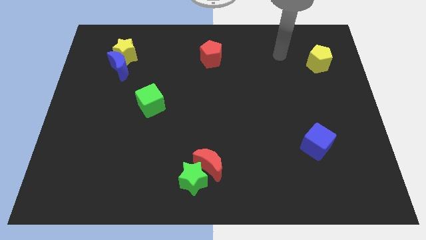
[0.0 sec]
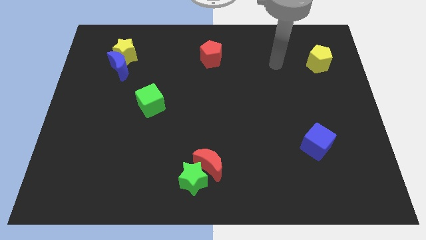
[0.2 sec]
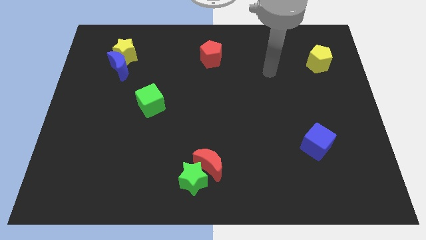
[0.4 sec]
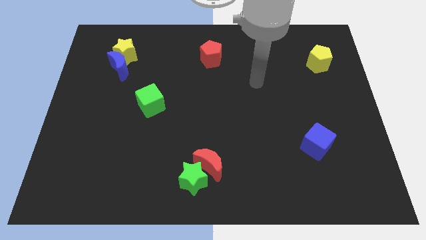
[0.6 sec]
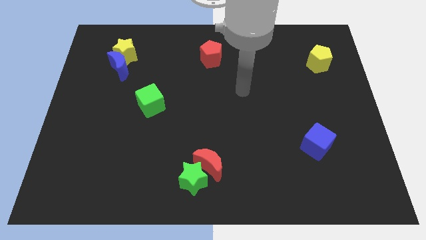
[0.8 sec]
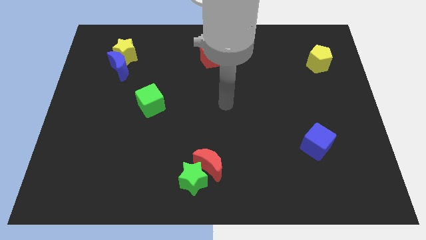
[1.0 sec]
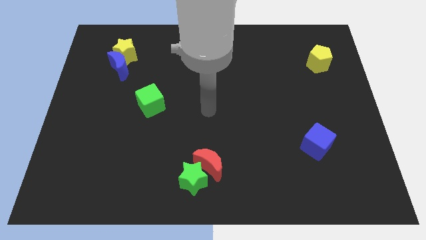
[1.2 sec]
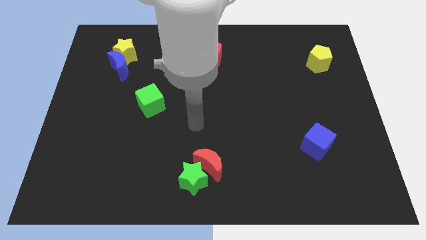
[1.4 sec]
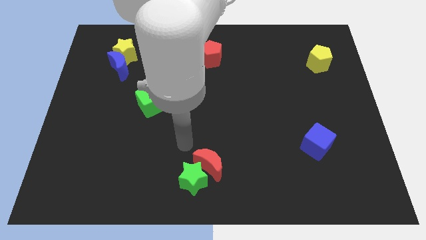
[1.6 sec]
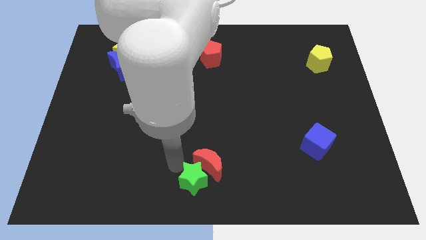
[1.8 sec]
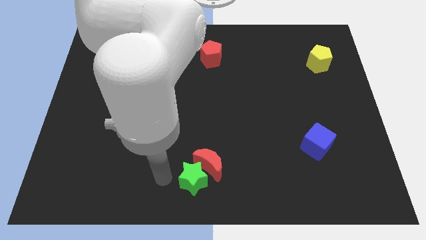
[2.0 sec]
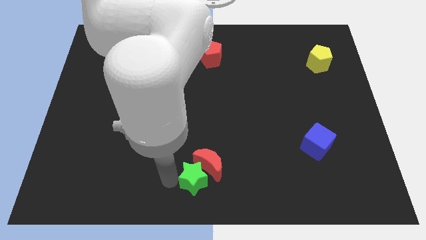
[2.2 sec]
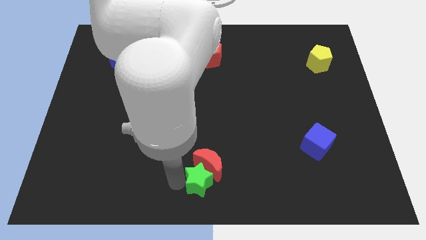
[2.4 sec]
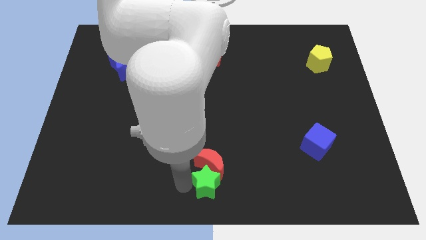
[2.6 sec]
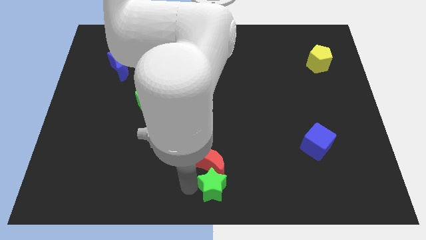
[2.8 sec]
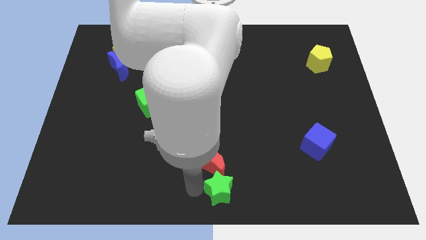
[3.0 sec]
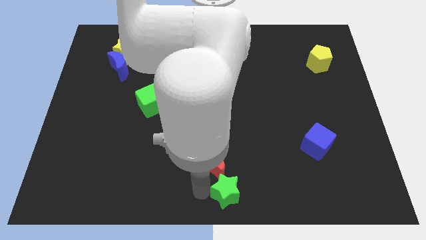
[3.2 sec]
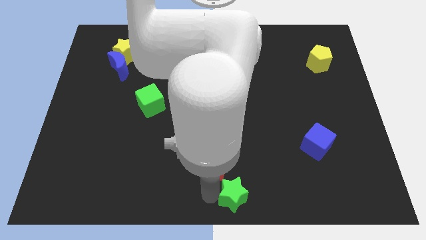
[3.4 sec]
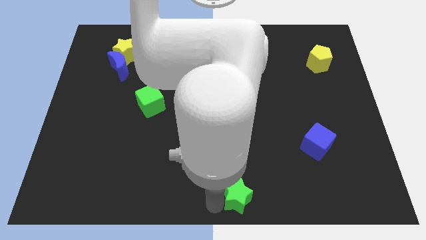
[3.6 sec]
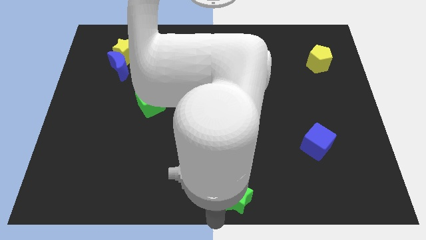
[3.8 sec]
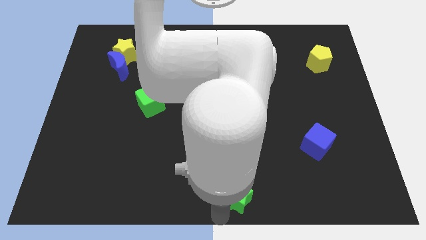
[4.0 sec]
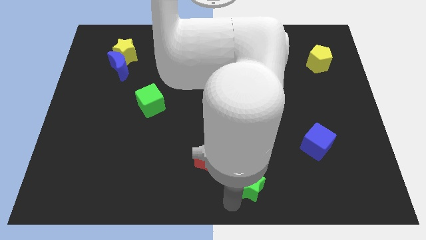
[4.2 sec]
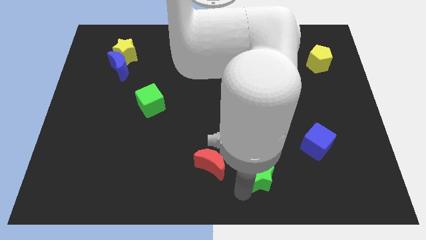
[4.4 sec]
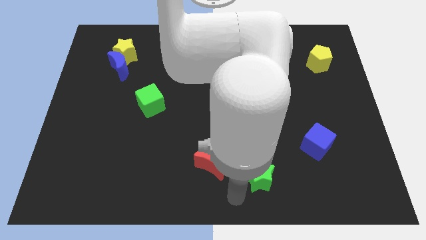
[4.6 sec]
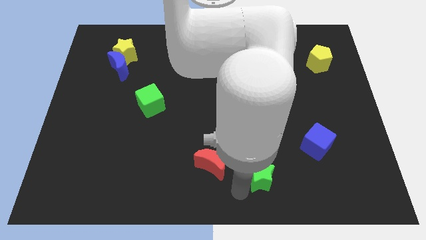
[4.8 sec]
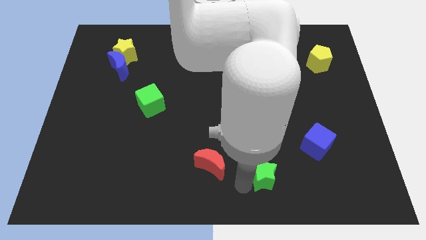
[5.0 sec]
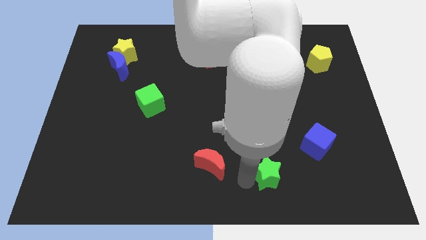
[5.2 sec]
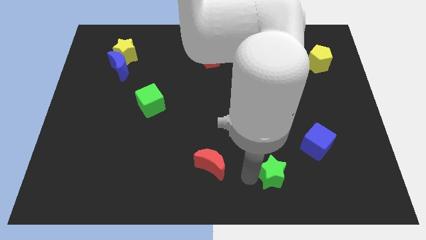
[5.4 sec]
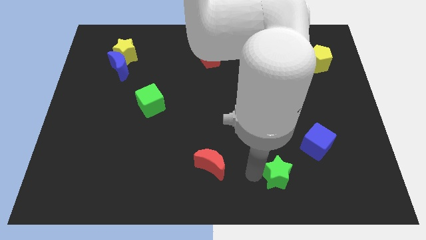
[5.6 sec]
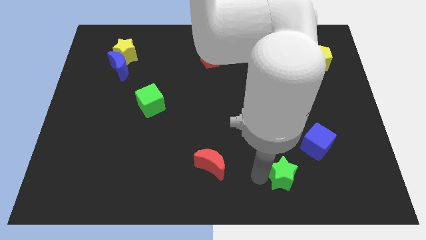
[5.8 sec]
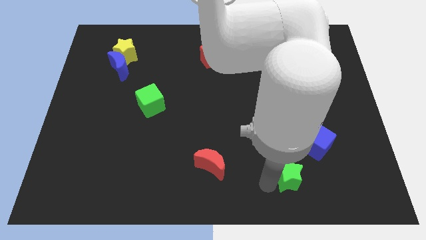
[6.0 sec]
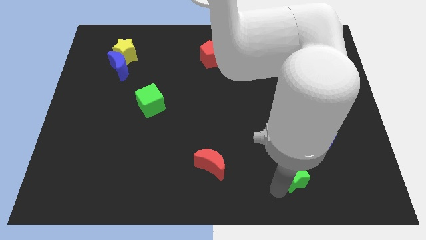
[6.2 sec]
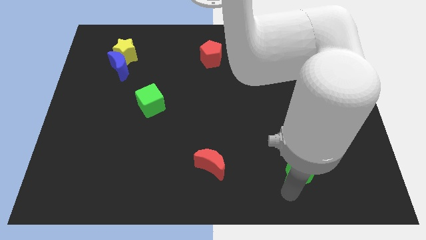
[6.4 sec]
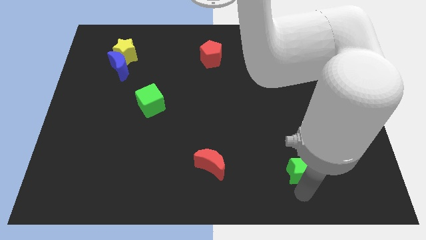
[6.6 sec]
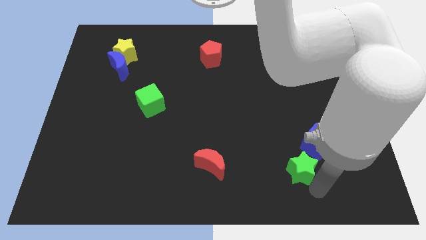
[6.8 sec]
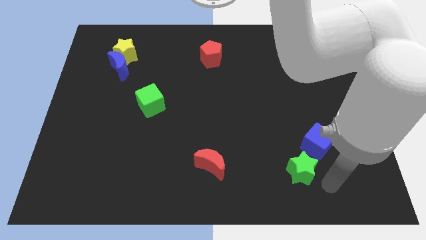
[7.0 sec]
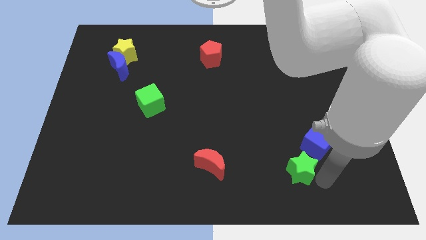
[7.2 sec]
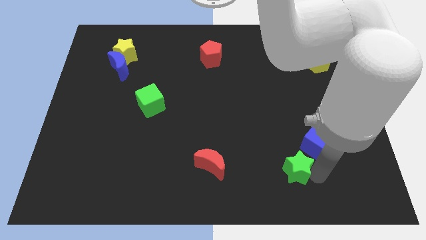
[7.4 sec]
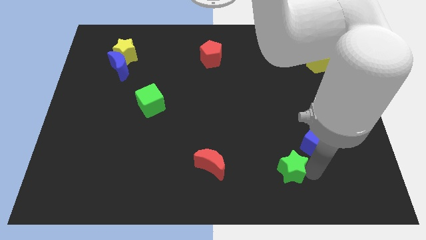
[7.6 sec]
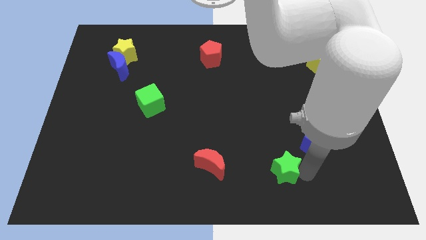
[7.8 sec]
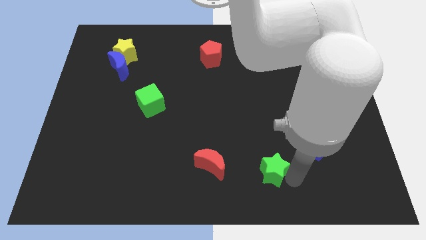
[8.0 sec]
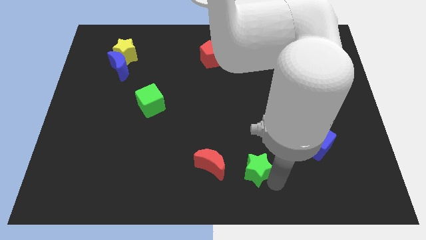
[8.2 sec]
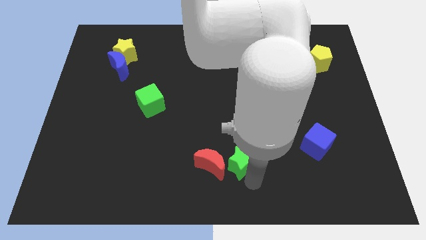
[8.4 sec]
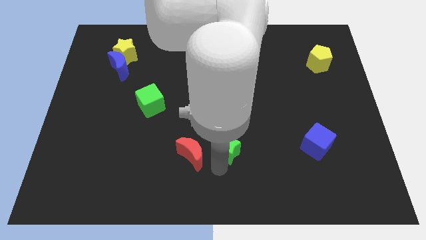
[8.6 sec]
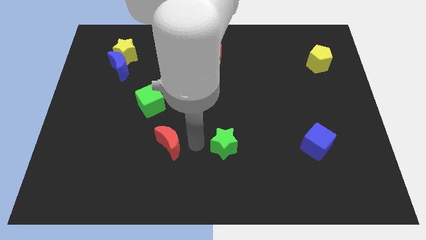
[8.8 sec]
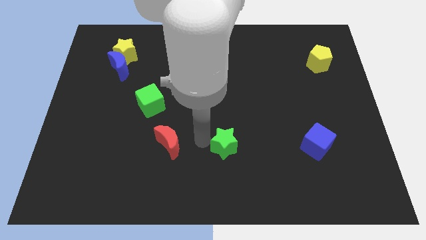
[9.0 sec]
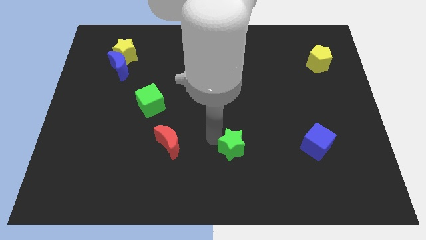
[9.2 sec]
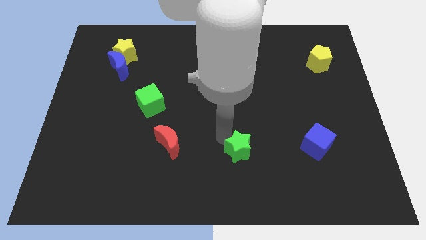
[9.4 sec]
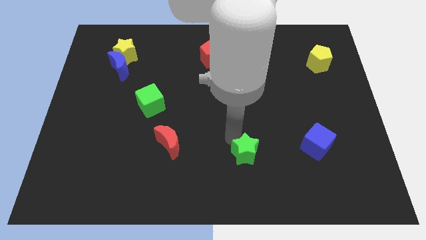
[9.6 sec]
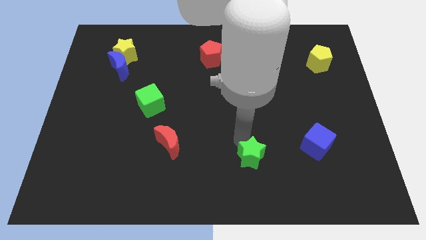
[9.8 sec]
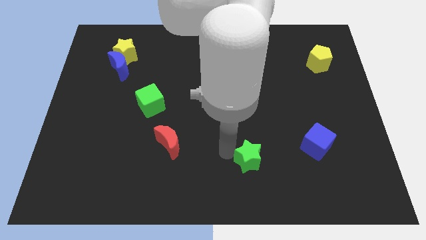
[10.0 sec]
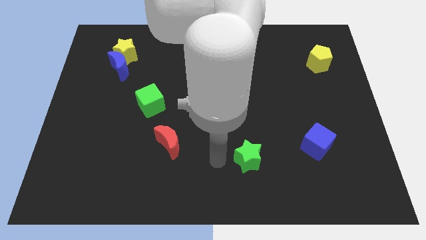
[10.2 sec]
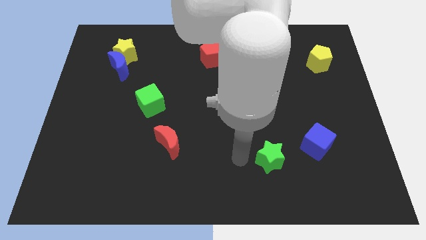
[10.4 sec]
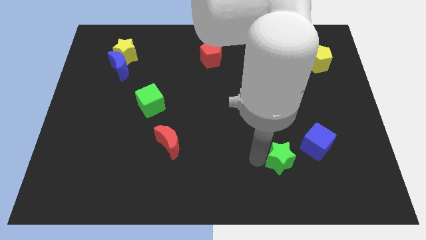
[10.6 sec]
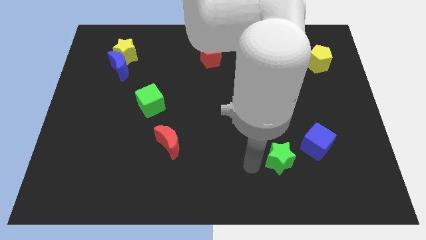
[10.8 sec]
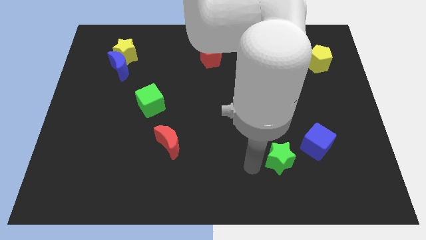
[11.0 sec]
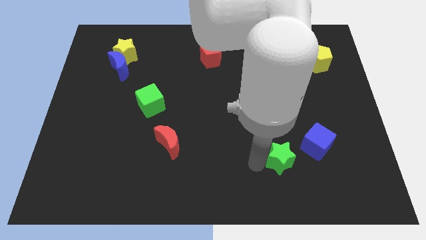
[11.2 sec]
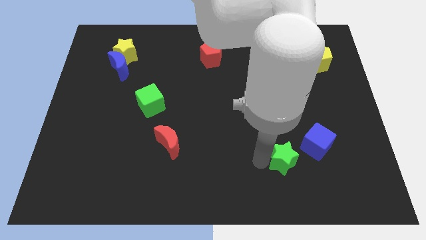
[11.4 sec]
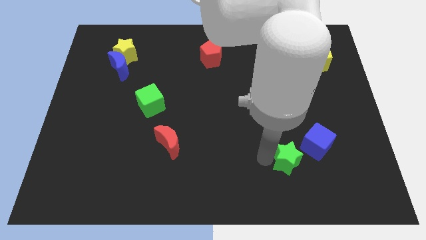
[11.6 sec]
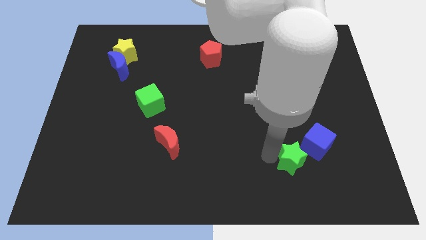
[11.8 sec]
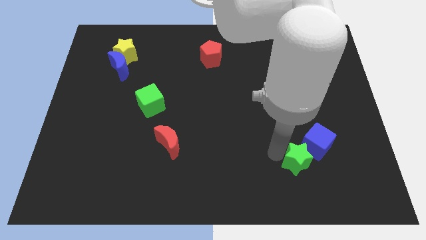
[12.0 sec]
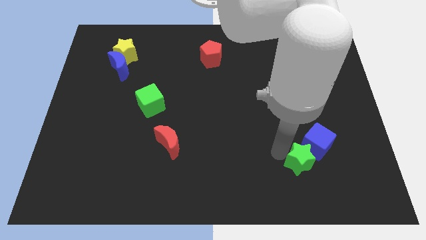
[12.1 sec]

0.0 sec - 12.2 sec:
move the green star next to the blue cube

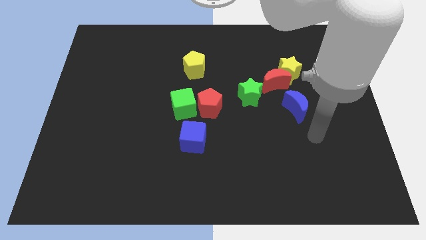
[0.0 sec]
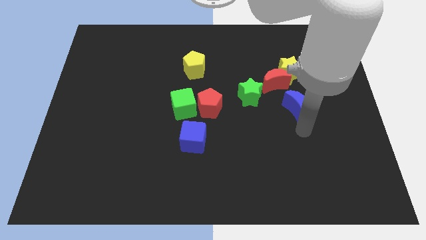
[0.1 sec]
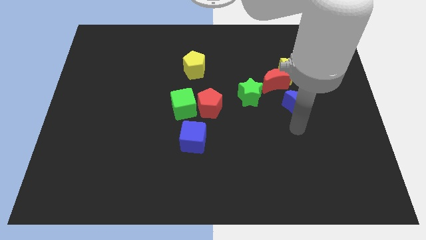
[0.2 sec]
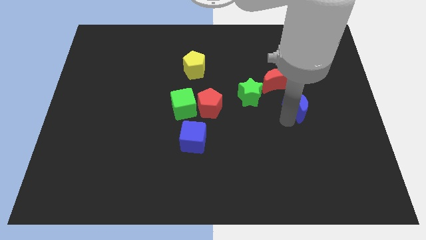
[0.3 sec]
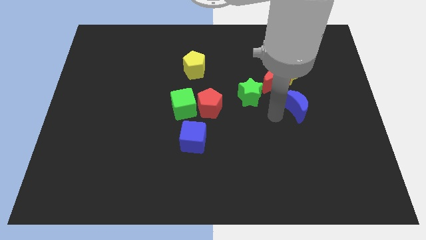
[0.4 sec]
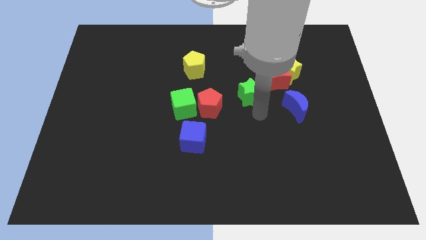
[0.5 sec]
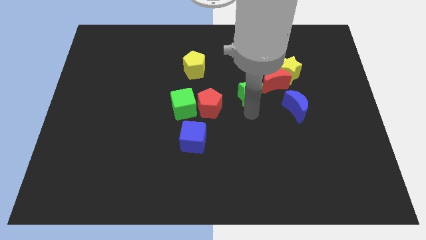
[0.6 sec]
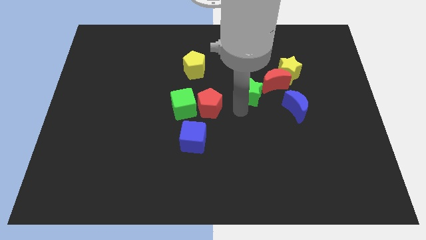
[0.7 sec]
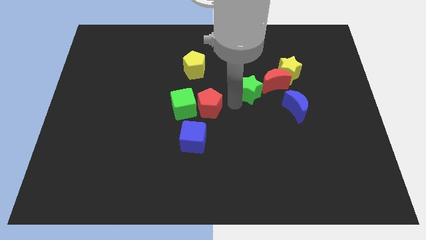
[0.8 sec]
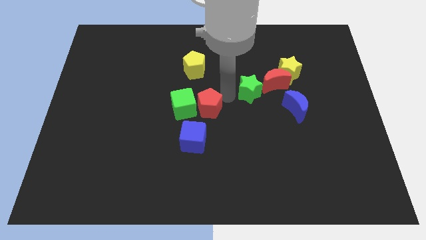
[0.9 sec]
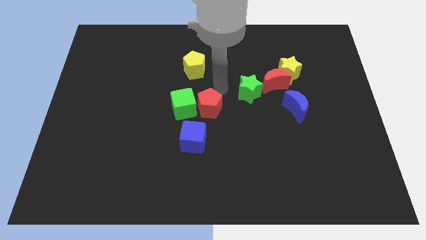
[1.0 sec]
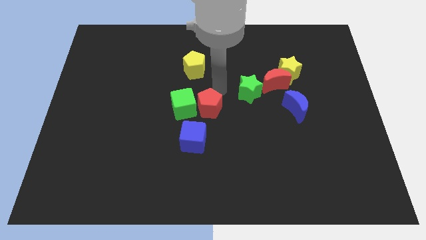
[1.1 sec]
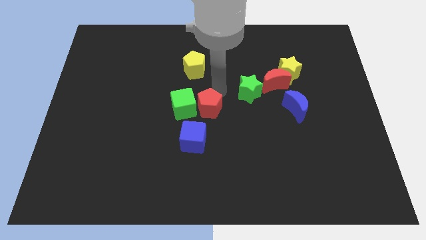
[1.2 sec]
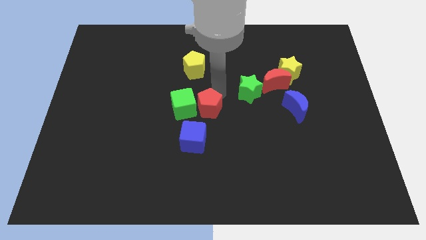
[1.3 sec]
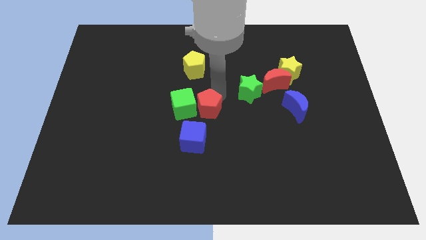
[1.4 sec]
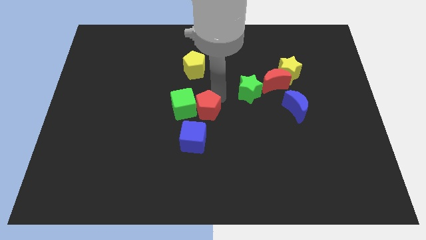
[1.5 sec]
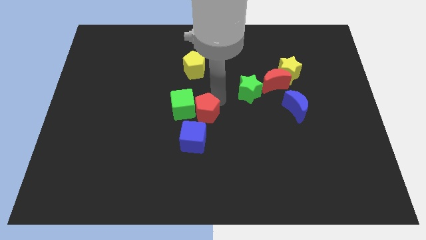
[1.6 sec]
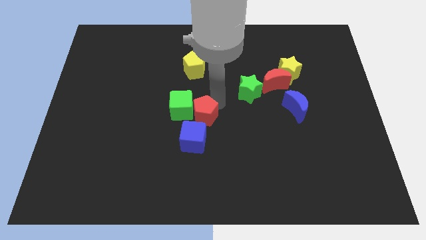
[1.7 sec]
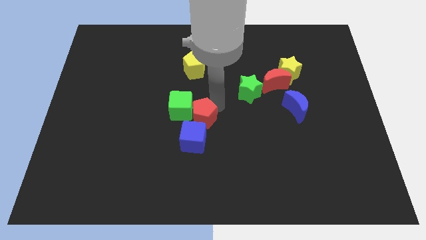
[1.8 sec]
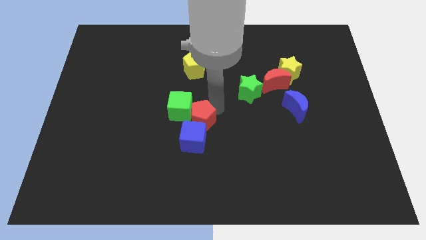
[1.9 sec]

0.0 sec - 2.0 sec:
move the red pentagon to the blue cube
